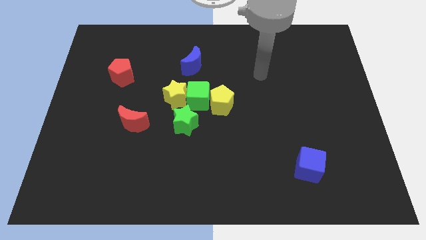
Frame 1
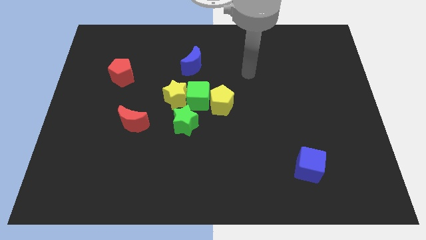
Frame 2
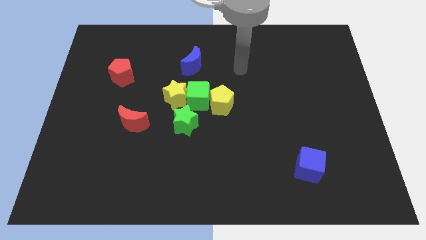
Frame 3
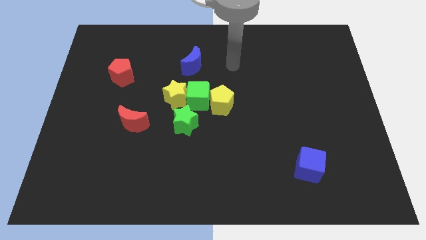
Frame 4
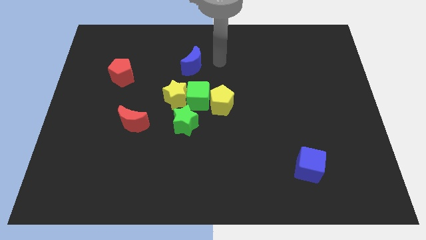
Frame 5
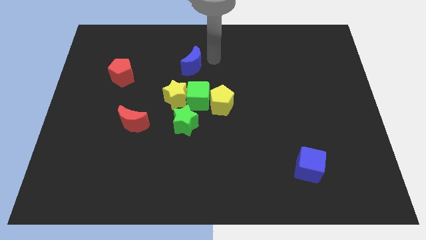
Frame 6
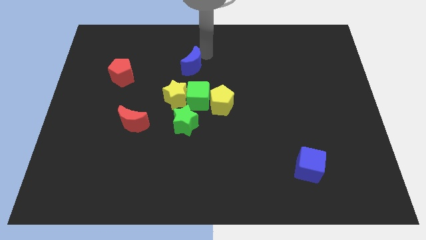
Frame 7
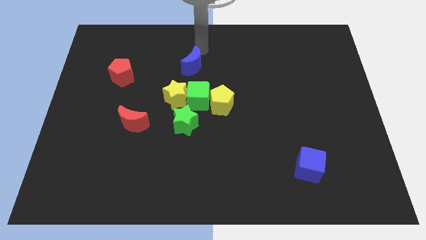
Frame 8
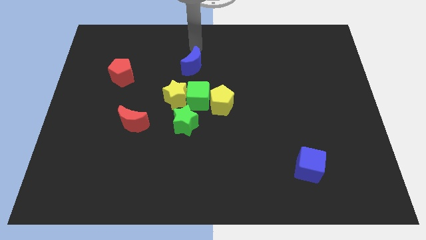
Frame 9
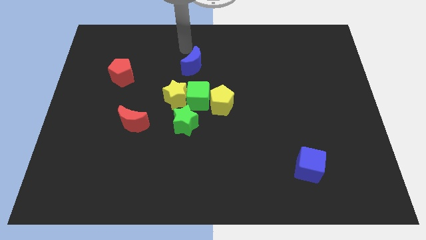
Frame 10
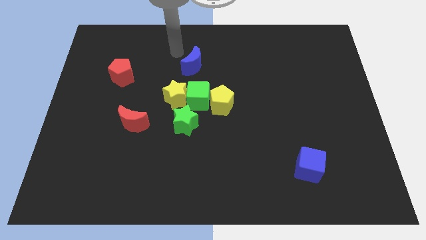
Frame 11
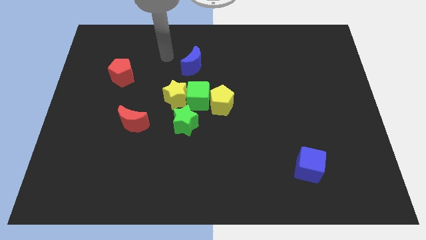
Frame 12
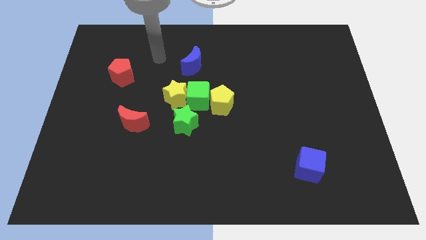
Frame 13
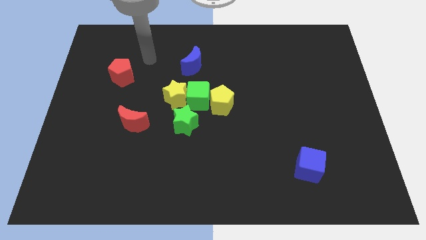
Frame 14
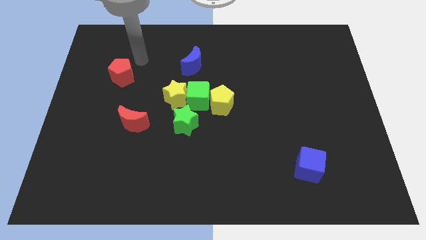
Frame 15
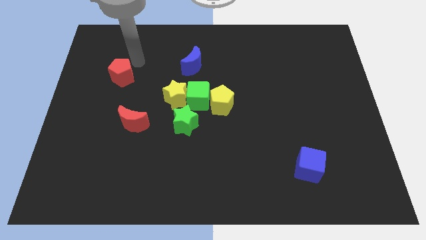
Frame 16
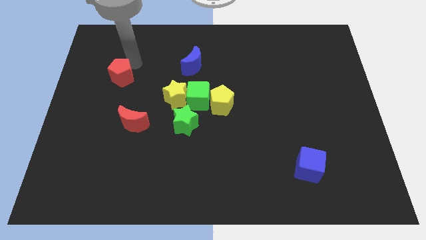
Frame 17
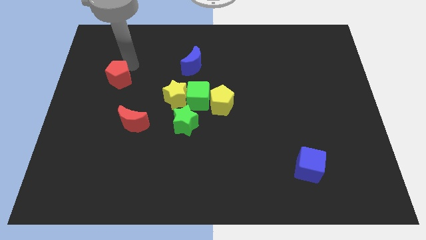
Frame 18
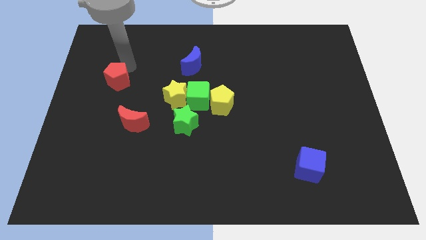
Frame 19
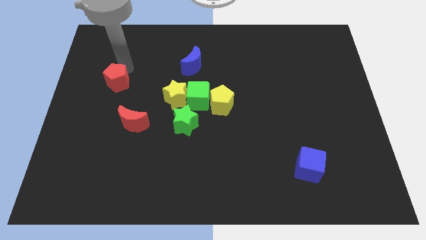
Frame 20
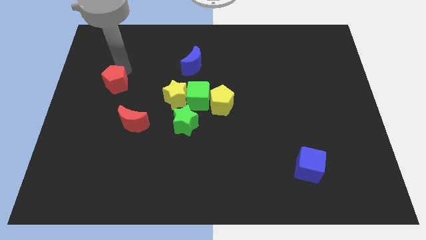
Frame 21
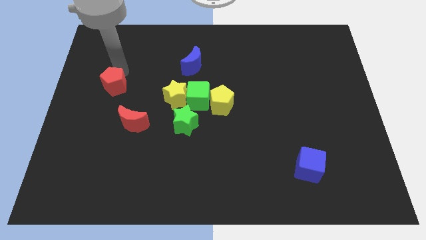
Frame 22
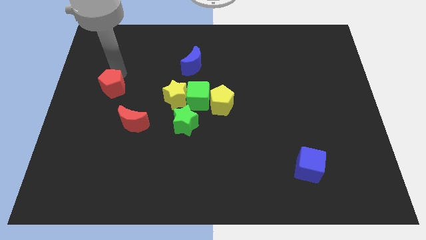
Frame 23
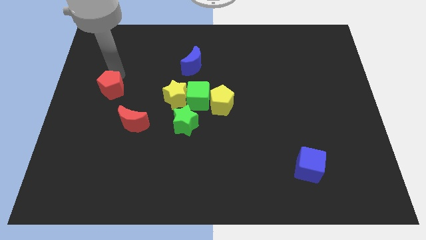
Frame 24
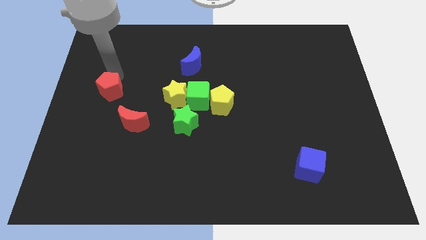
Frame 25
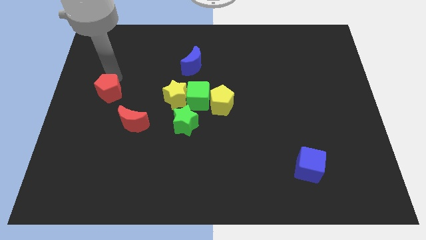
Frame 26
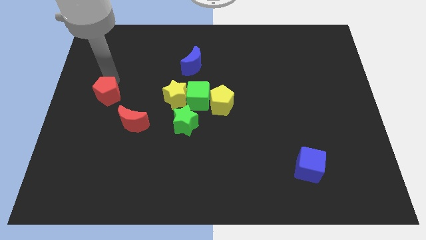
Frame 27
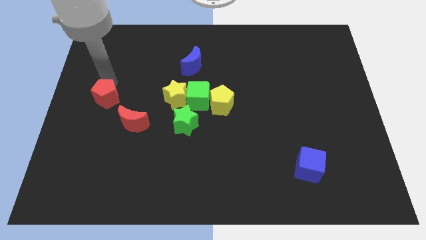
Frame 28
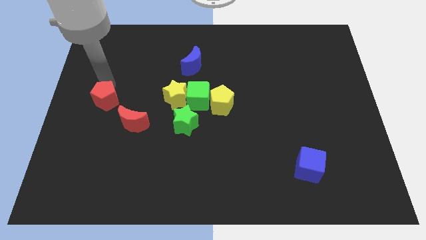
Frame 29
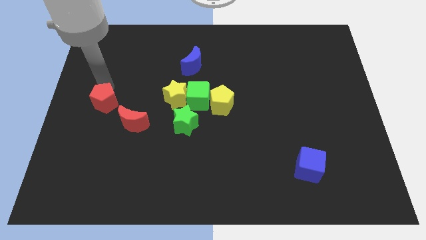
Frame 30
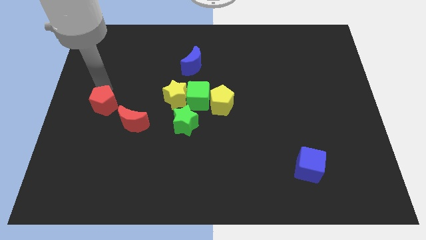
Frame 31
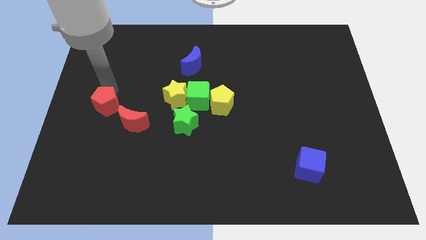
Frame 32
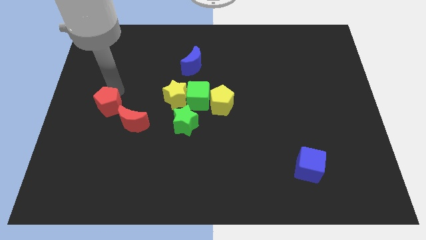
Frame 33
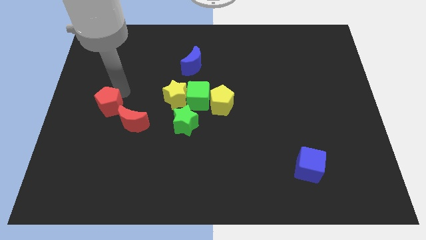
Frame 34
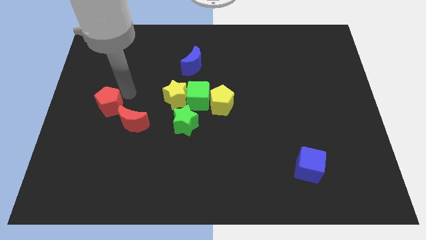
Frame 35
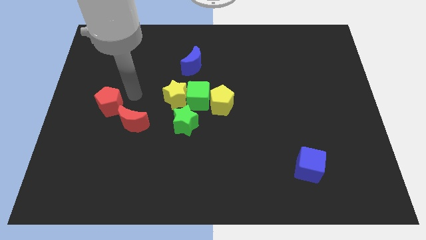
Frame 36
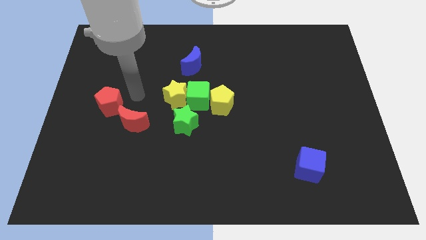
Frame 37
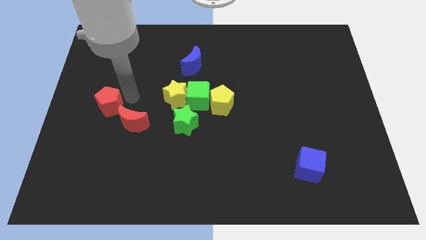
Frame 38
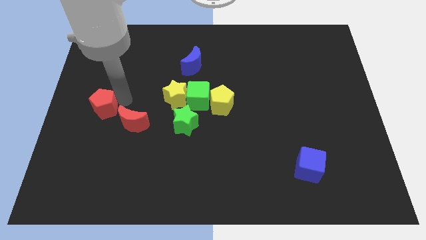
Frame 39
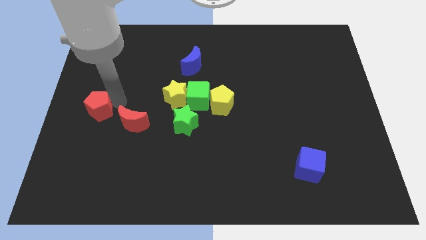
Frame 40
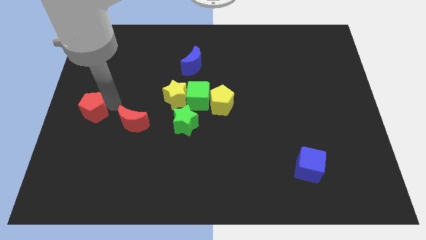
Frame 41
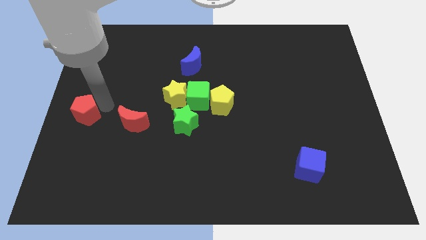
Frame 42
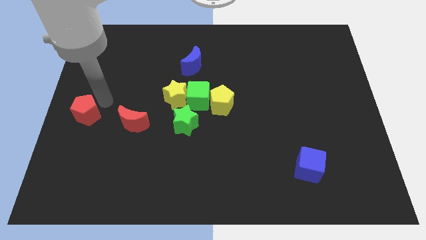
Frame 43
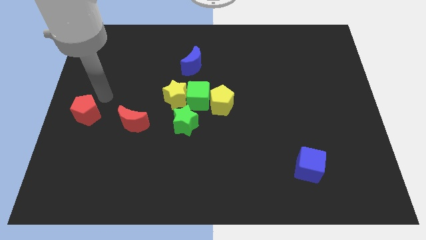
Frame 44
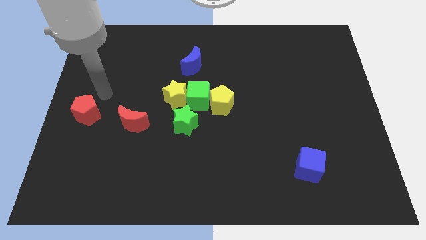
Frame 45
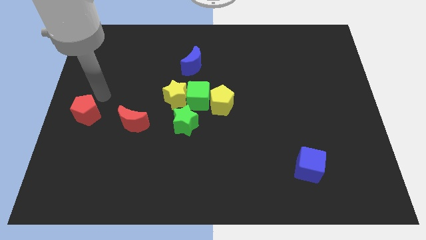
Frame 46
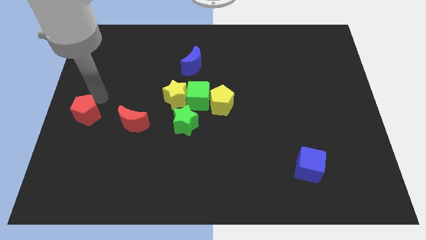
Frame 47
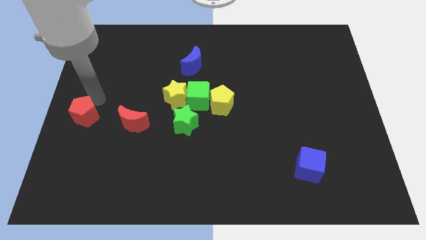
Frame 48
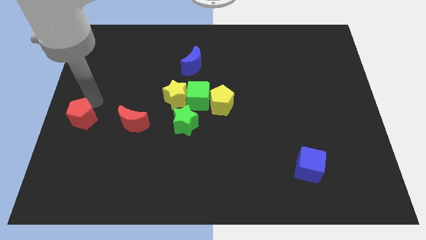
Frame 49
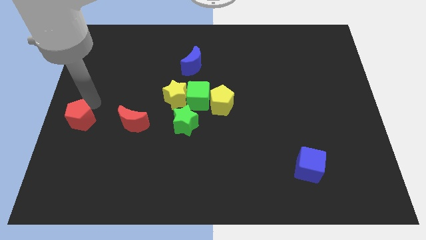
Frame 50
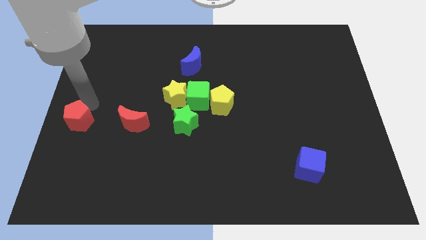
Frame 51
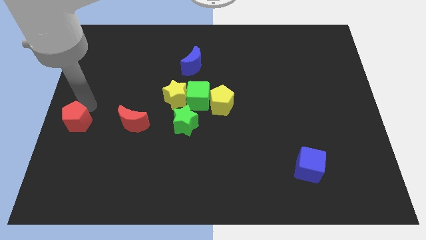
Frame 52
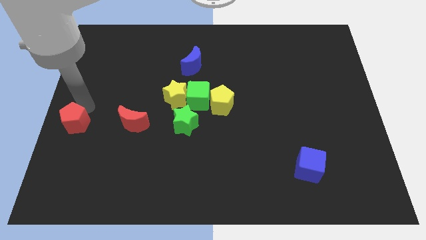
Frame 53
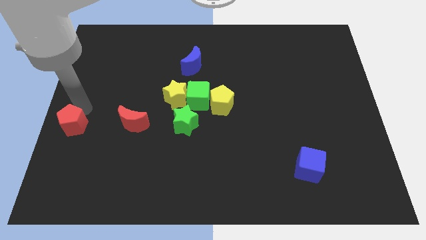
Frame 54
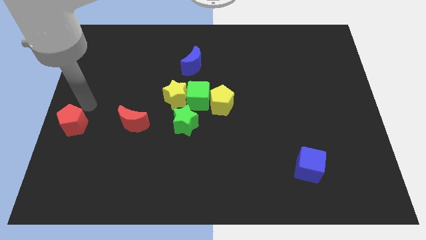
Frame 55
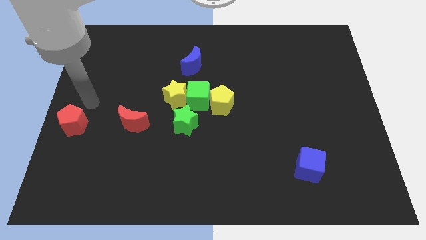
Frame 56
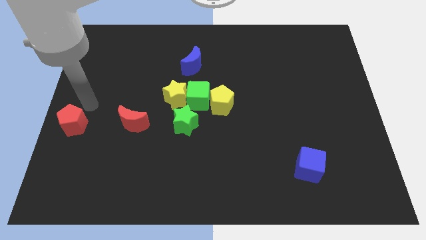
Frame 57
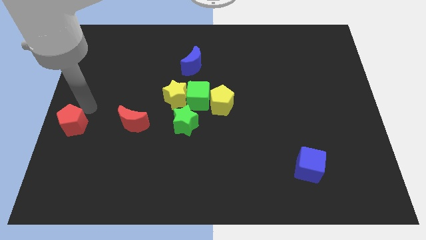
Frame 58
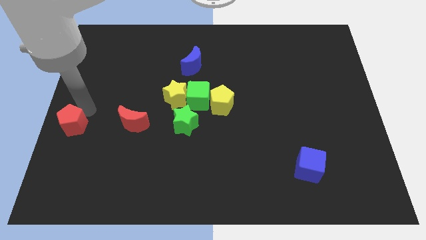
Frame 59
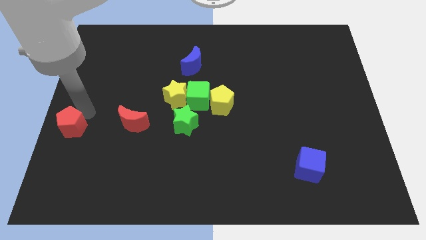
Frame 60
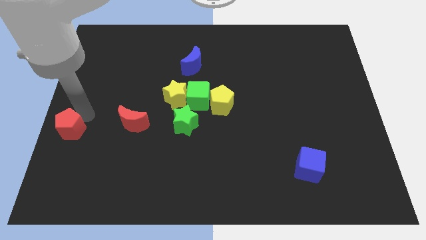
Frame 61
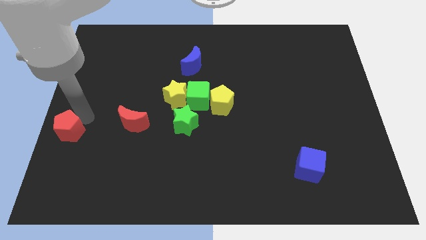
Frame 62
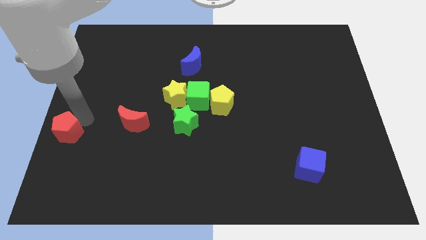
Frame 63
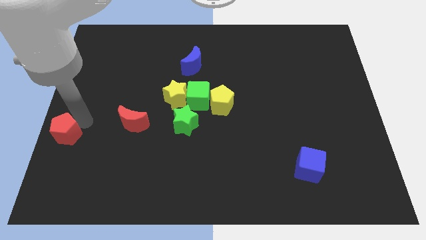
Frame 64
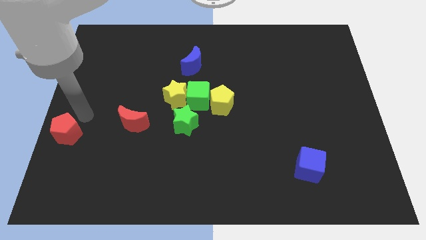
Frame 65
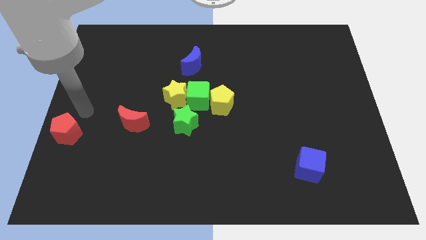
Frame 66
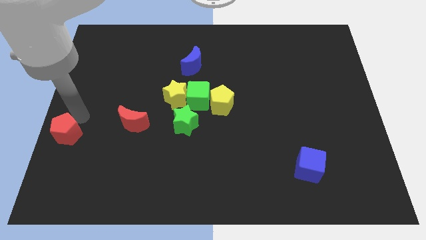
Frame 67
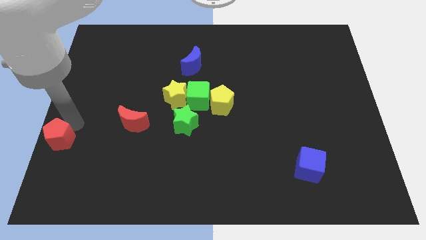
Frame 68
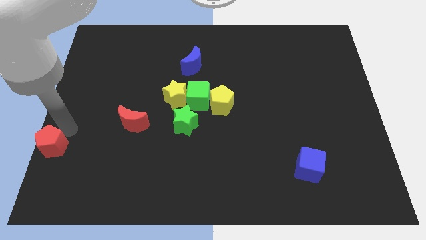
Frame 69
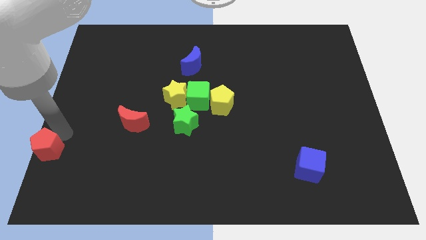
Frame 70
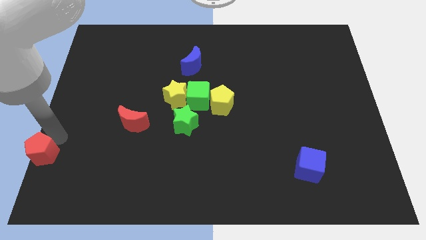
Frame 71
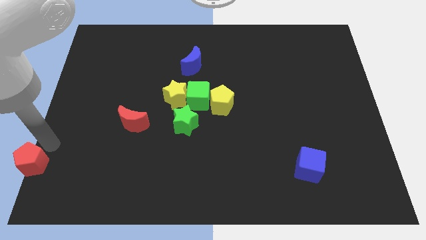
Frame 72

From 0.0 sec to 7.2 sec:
move the red pentagon to the bottom left
